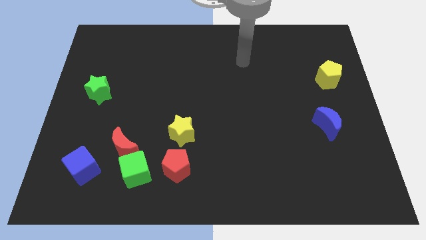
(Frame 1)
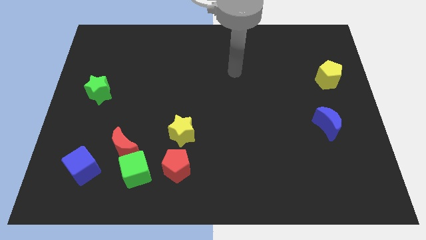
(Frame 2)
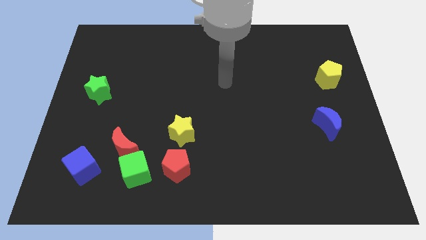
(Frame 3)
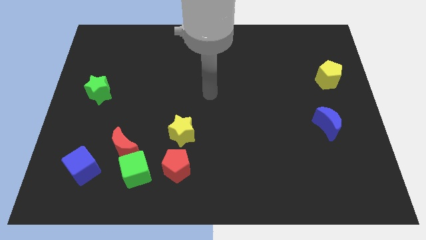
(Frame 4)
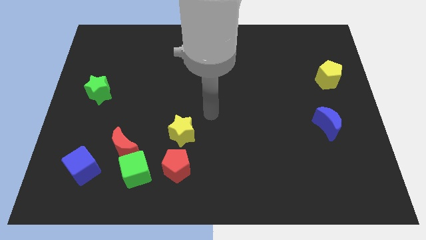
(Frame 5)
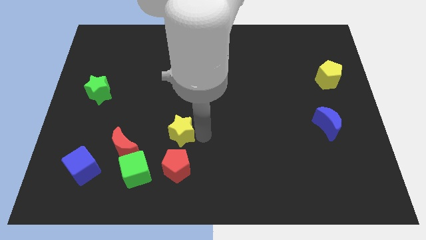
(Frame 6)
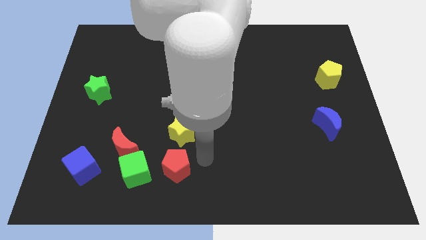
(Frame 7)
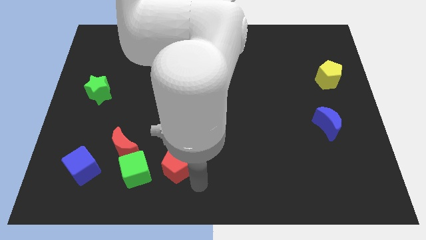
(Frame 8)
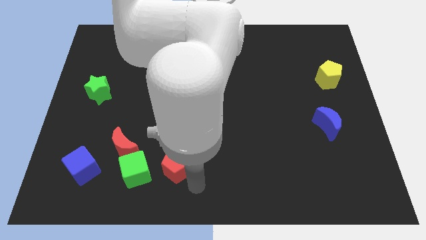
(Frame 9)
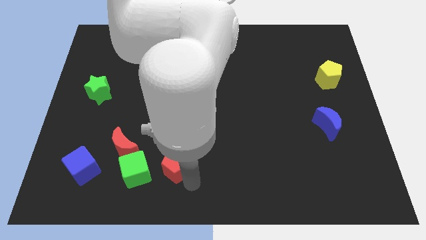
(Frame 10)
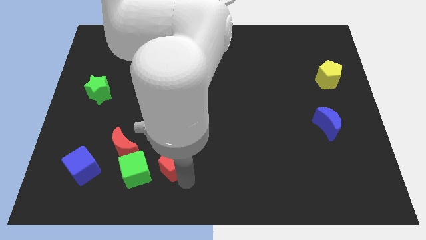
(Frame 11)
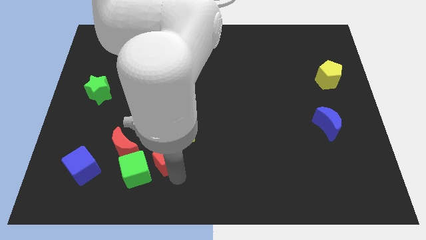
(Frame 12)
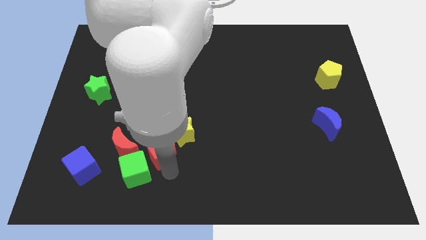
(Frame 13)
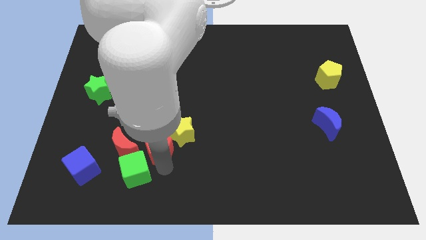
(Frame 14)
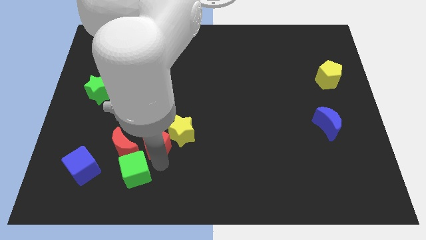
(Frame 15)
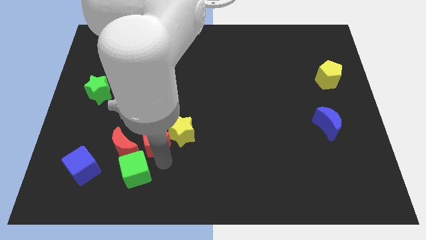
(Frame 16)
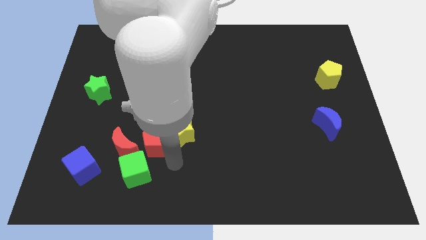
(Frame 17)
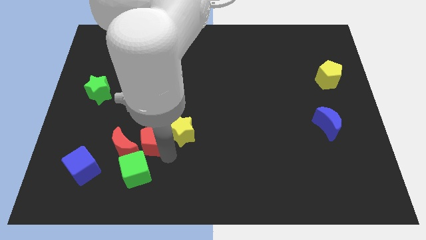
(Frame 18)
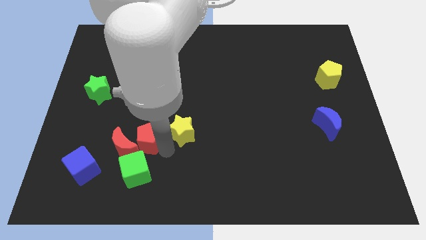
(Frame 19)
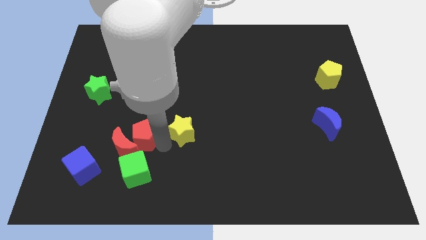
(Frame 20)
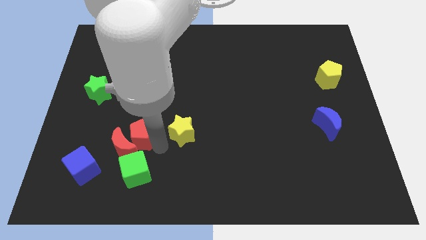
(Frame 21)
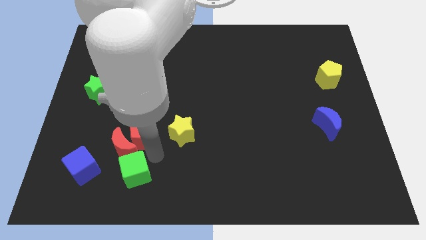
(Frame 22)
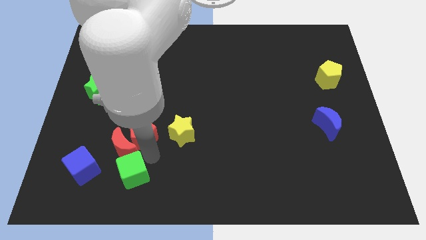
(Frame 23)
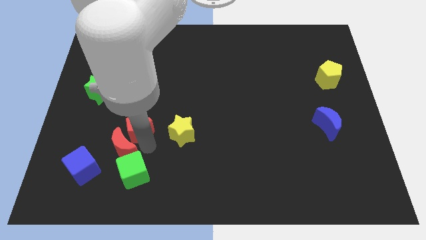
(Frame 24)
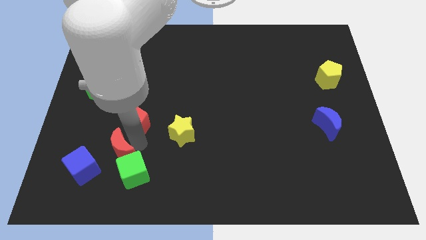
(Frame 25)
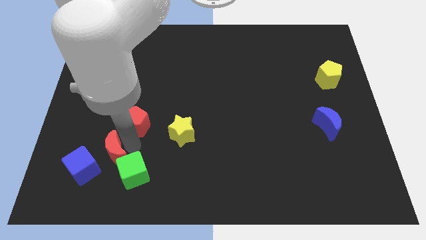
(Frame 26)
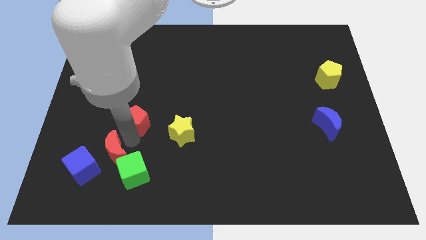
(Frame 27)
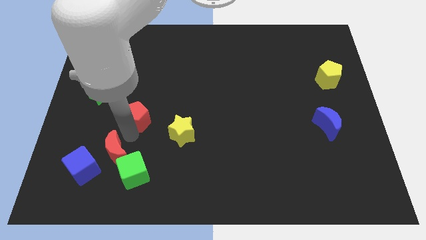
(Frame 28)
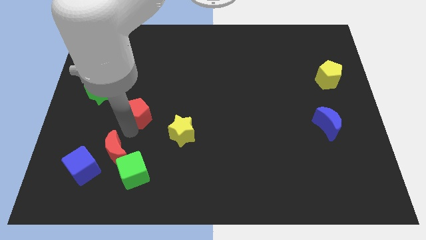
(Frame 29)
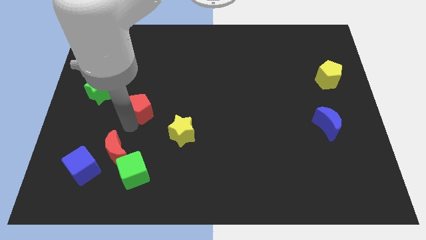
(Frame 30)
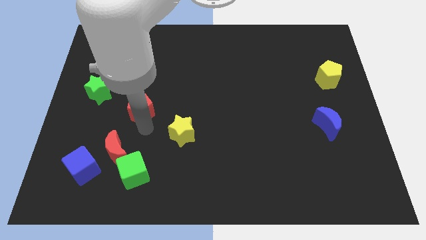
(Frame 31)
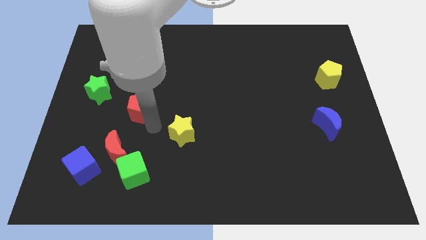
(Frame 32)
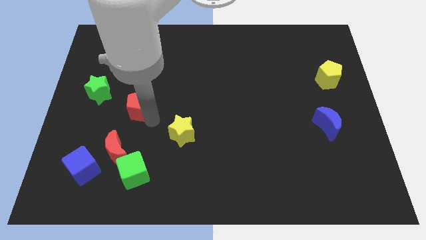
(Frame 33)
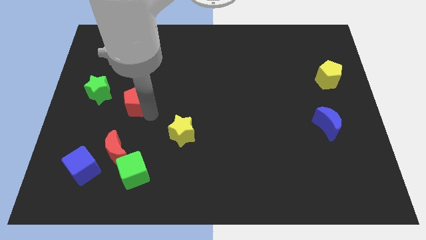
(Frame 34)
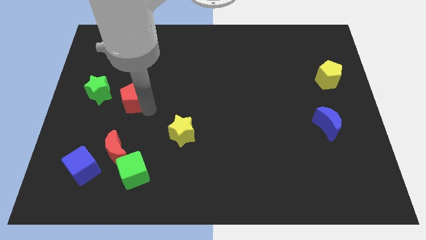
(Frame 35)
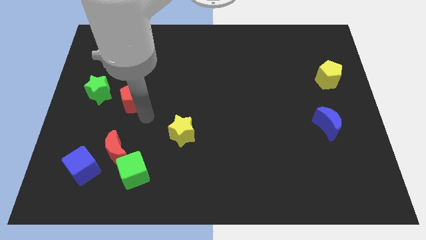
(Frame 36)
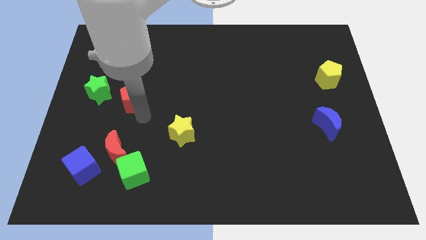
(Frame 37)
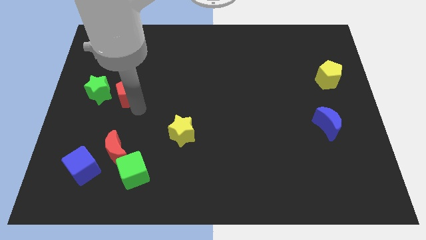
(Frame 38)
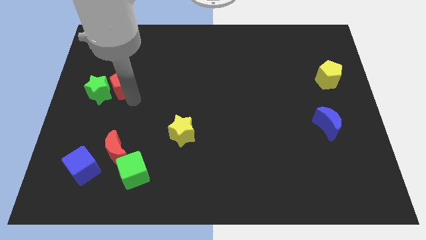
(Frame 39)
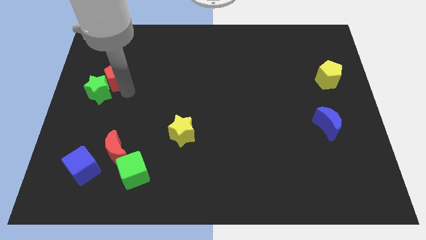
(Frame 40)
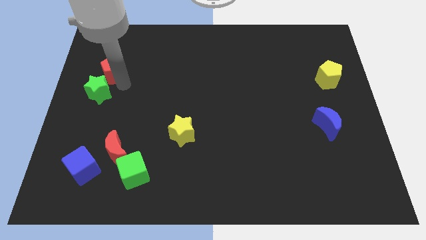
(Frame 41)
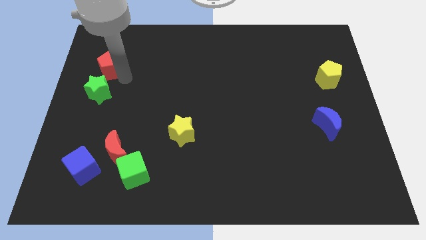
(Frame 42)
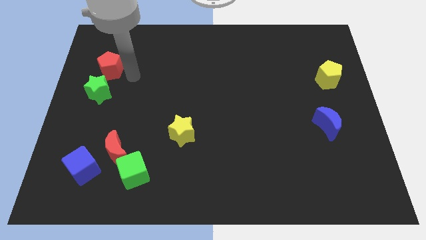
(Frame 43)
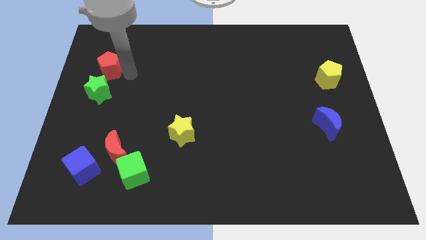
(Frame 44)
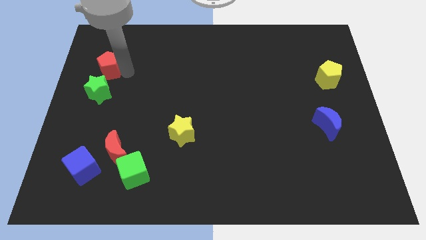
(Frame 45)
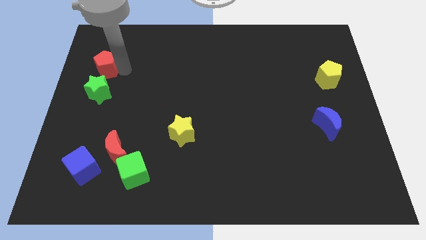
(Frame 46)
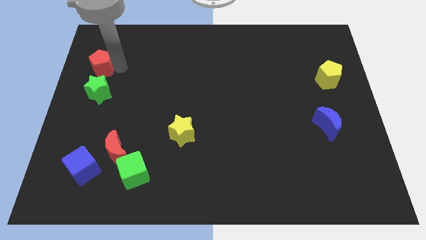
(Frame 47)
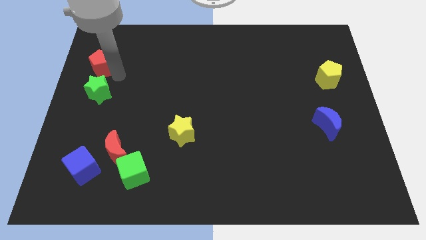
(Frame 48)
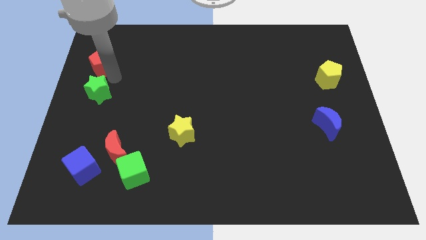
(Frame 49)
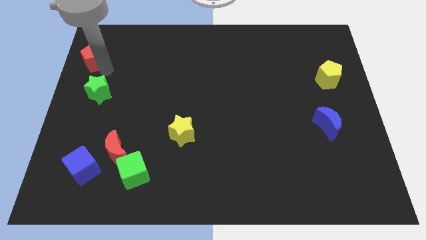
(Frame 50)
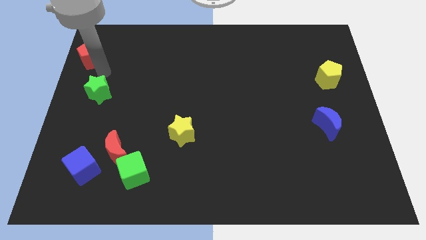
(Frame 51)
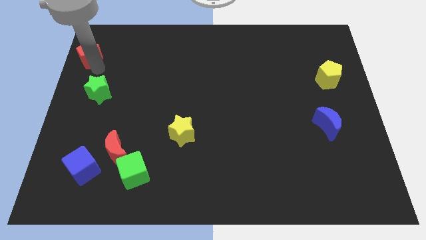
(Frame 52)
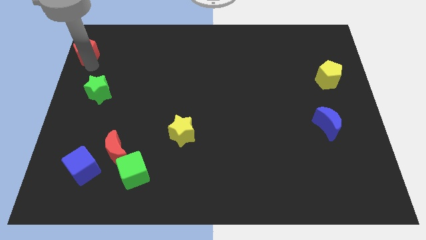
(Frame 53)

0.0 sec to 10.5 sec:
slide the red pentagon to the top left of the board

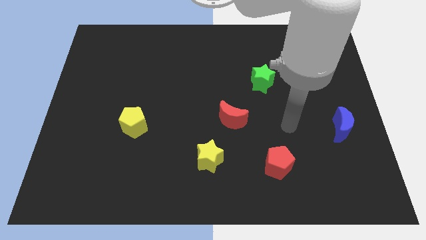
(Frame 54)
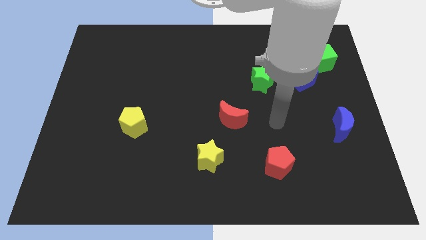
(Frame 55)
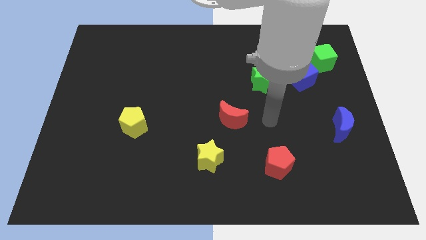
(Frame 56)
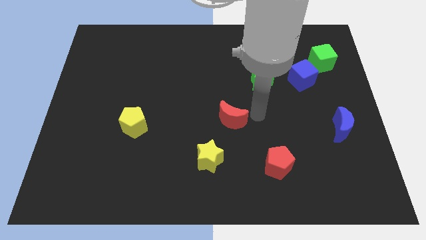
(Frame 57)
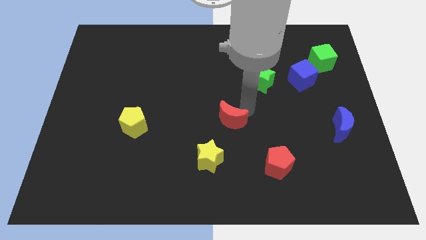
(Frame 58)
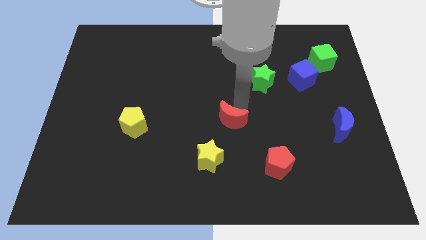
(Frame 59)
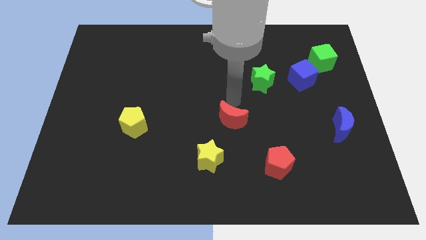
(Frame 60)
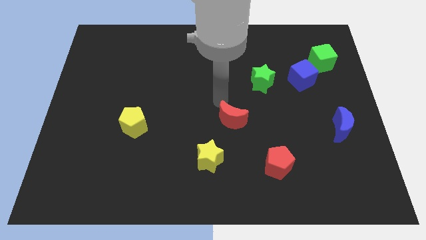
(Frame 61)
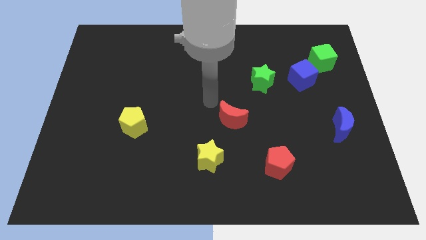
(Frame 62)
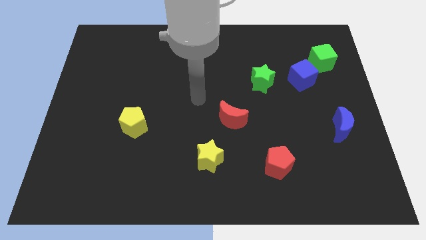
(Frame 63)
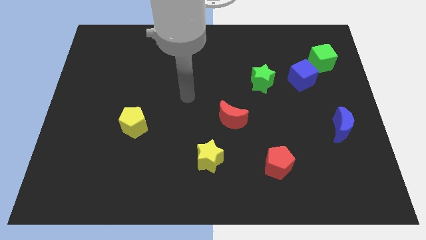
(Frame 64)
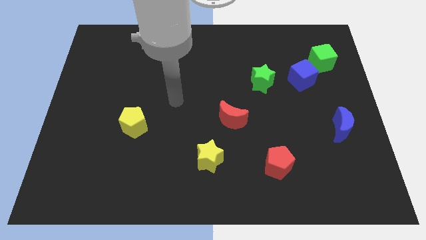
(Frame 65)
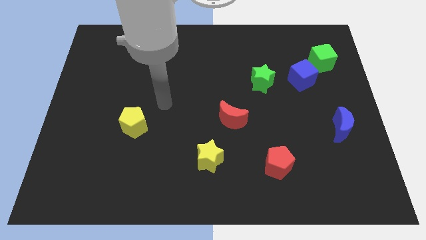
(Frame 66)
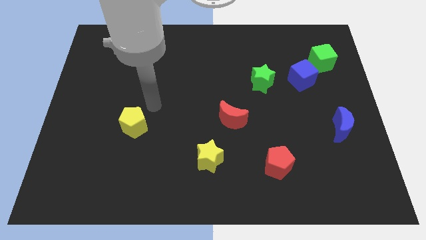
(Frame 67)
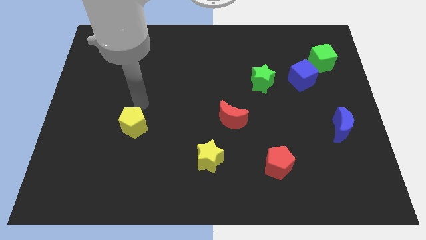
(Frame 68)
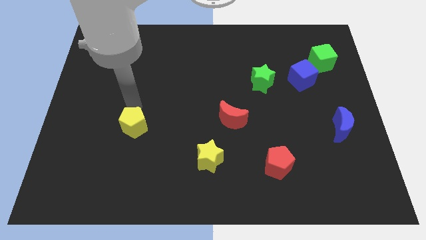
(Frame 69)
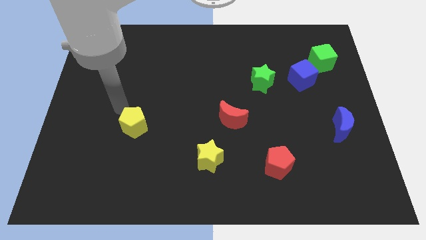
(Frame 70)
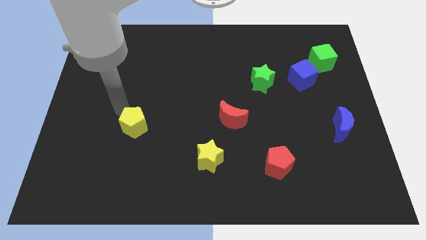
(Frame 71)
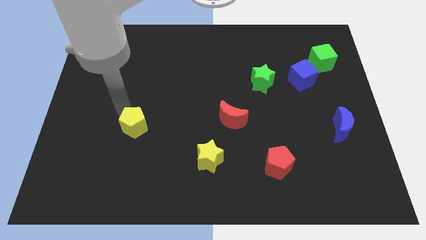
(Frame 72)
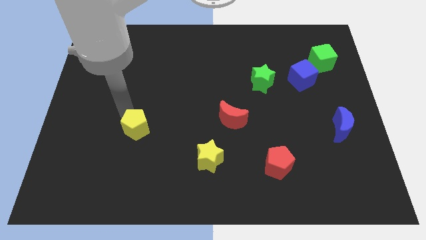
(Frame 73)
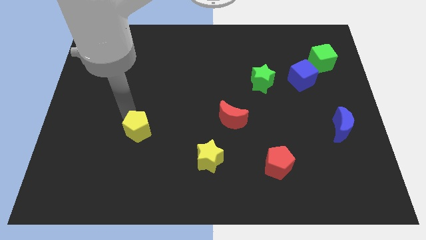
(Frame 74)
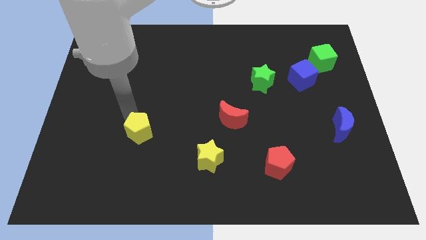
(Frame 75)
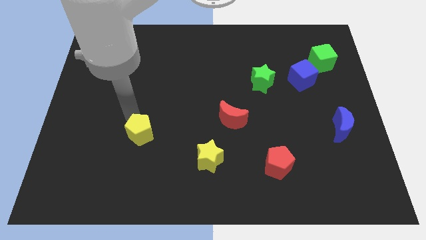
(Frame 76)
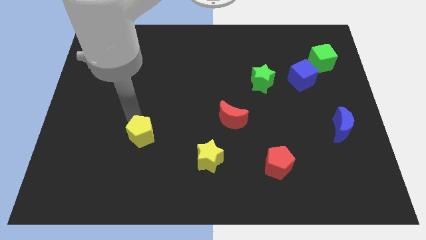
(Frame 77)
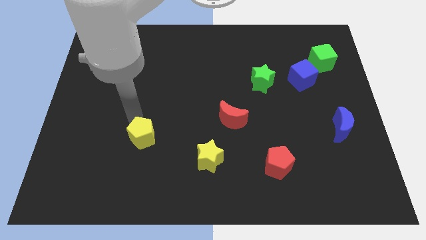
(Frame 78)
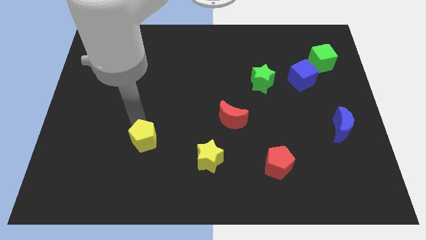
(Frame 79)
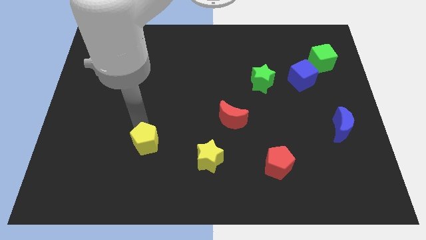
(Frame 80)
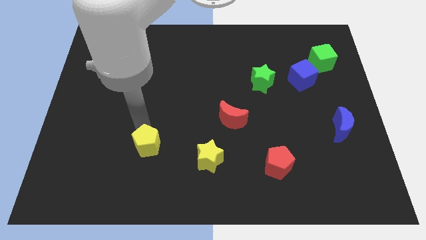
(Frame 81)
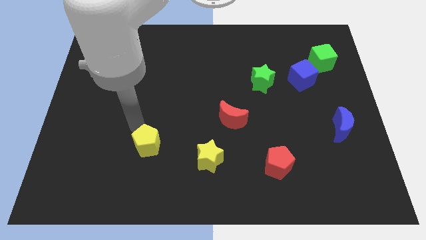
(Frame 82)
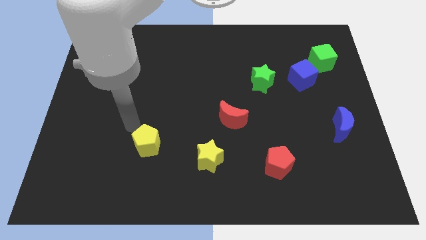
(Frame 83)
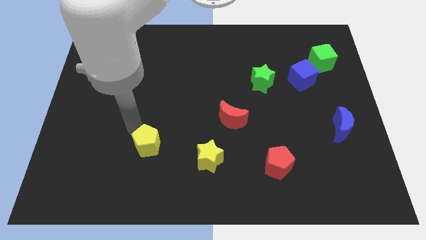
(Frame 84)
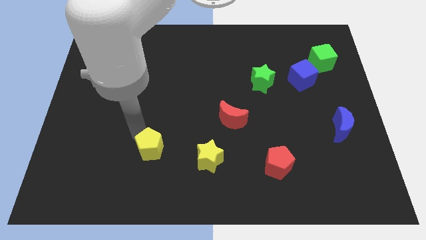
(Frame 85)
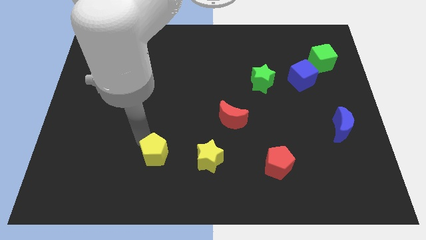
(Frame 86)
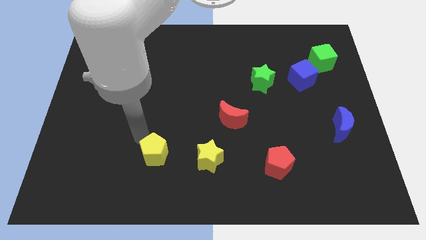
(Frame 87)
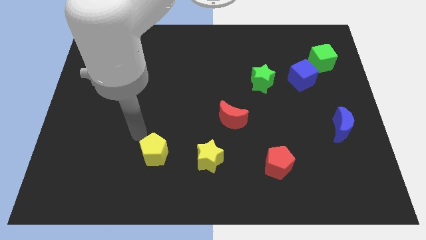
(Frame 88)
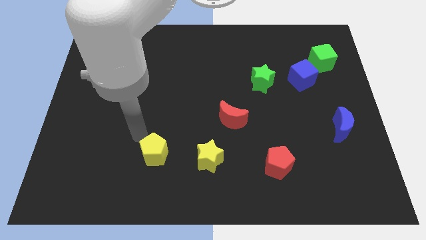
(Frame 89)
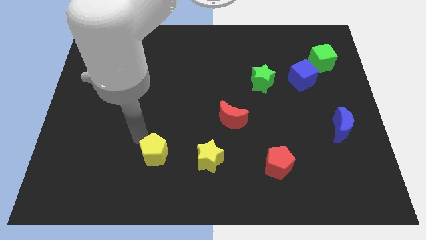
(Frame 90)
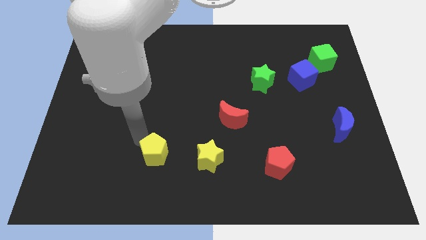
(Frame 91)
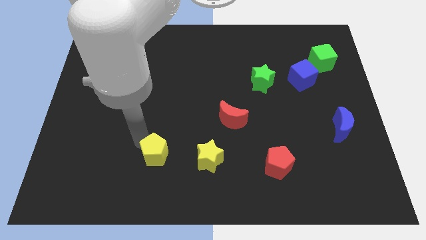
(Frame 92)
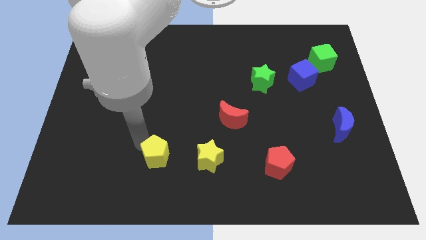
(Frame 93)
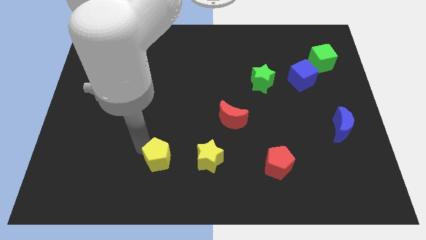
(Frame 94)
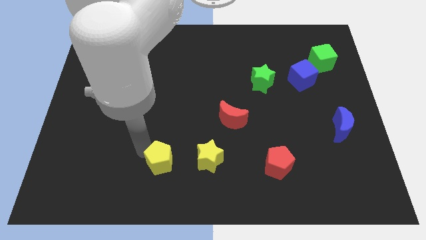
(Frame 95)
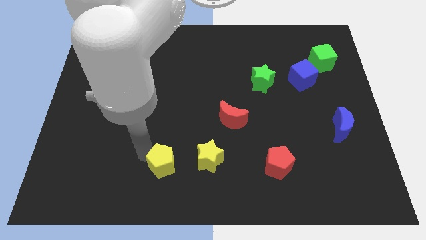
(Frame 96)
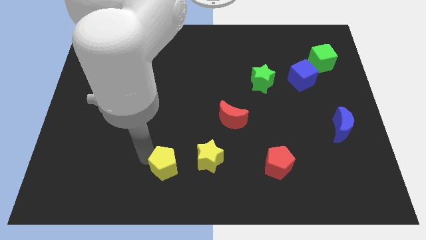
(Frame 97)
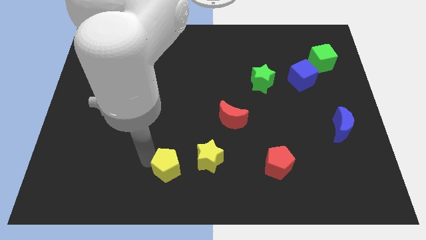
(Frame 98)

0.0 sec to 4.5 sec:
push the yellow pentagon to the bottom
